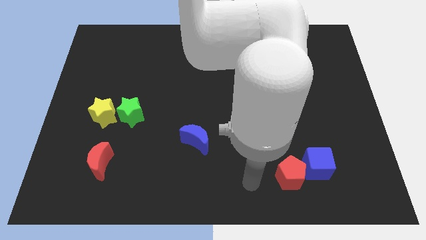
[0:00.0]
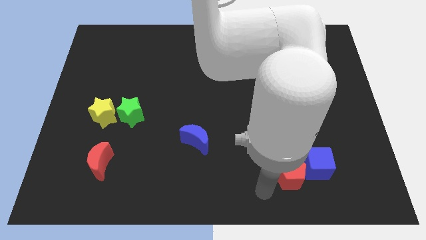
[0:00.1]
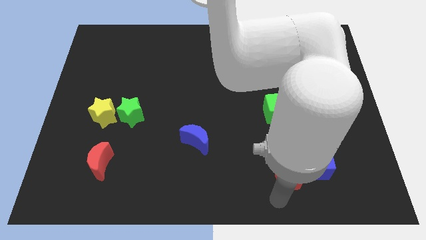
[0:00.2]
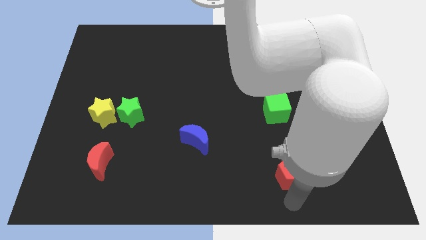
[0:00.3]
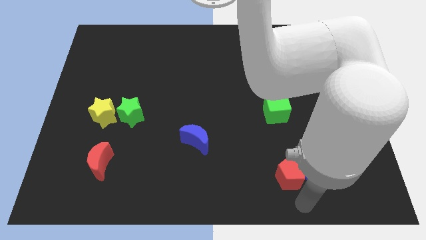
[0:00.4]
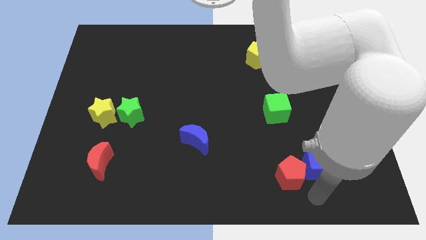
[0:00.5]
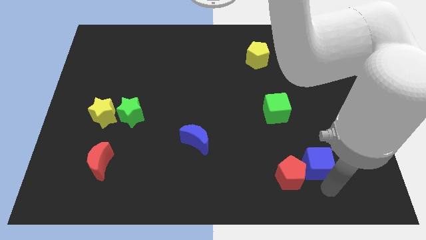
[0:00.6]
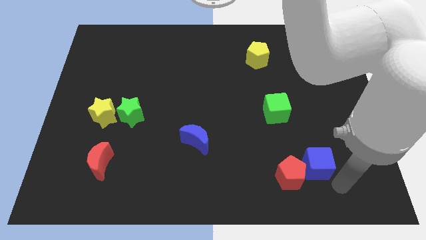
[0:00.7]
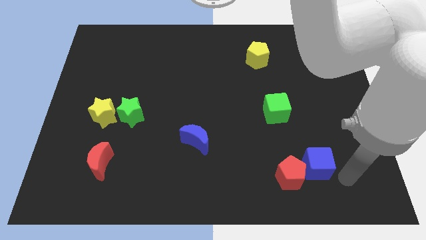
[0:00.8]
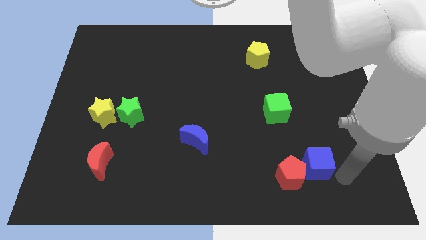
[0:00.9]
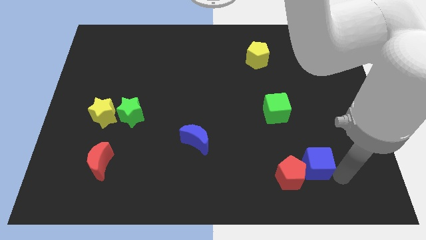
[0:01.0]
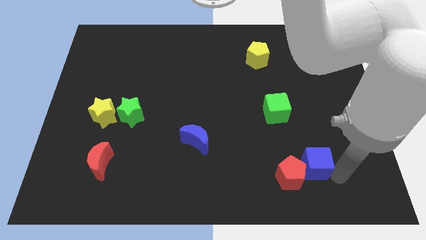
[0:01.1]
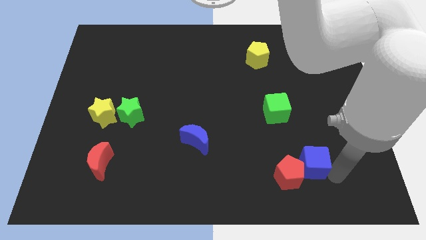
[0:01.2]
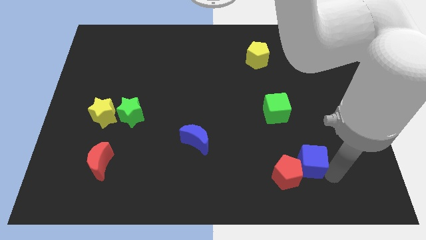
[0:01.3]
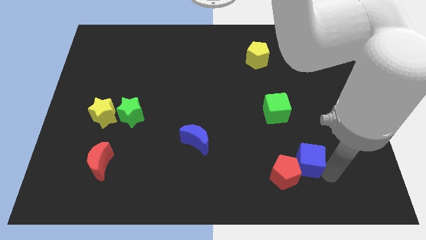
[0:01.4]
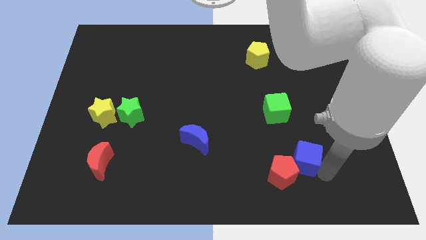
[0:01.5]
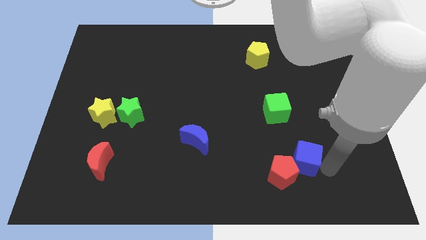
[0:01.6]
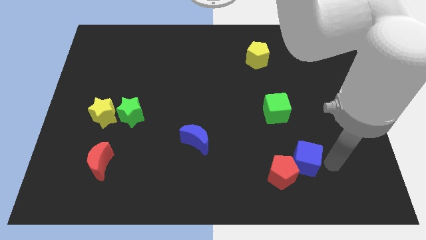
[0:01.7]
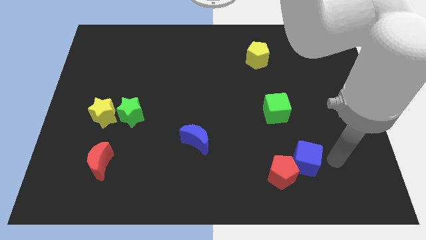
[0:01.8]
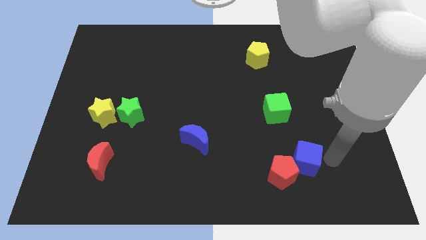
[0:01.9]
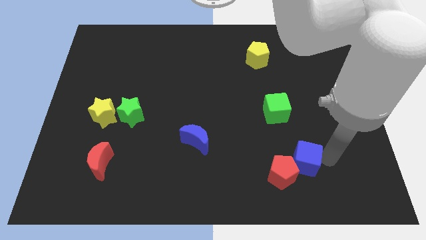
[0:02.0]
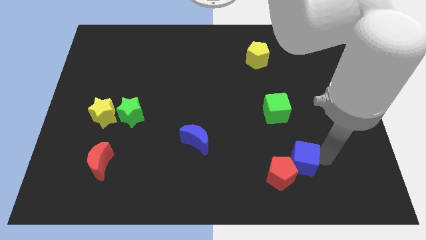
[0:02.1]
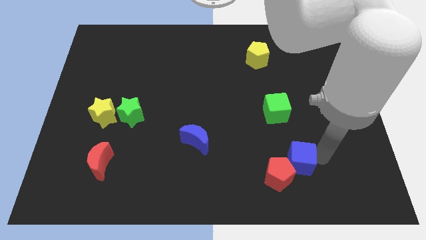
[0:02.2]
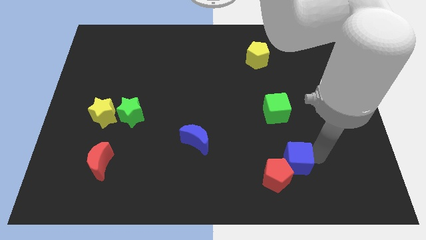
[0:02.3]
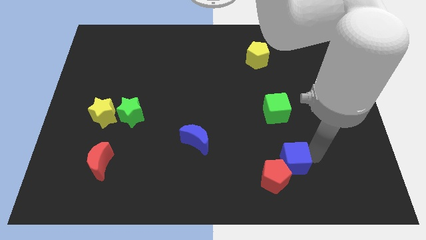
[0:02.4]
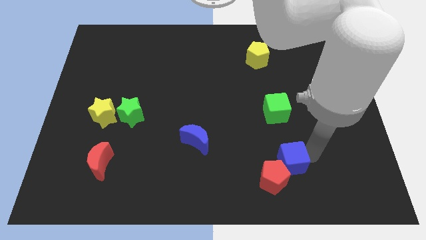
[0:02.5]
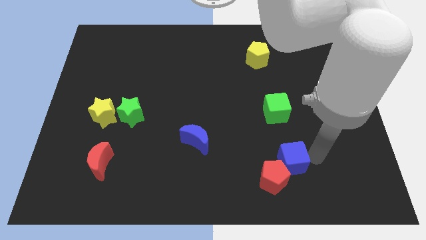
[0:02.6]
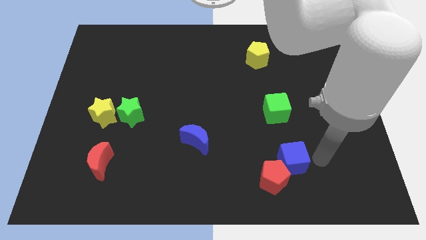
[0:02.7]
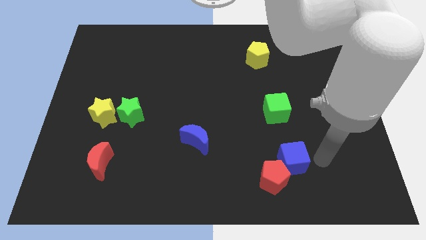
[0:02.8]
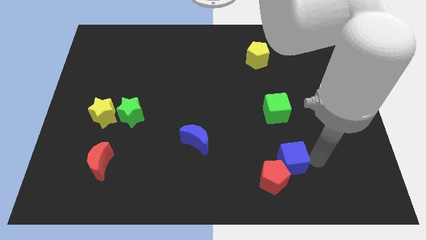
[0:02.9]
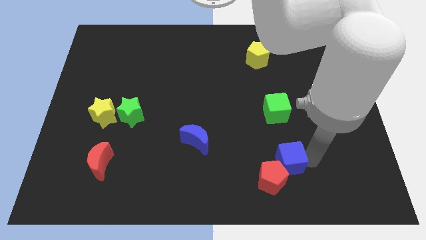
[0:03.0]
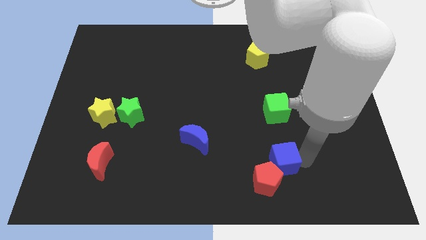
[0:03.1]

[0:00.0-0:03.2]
slightly push the blue cube left

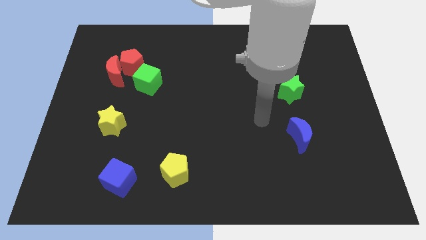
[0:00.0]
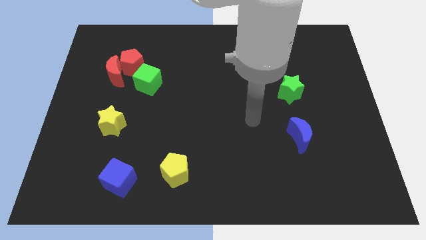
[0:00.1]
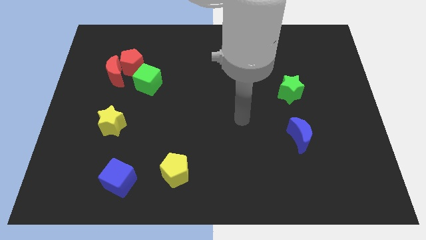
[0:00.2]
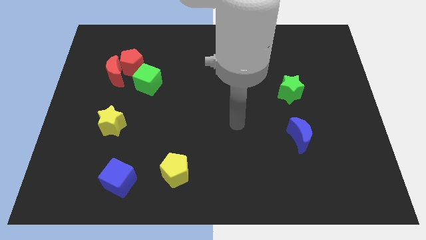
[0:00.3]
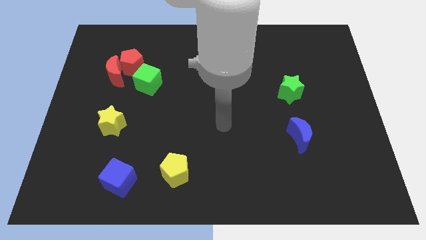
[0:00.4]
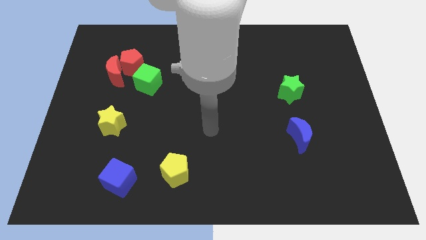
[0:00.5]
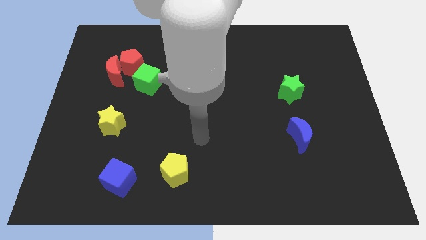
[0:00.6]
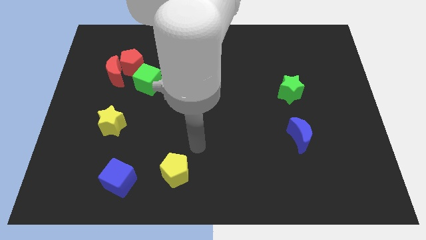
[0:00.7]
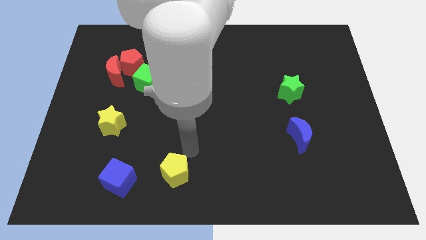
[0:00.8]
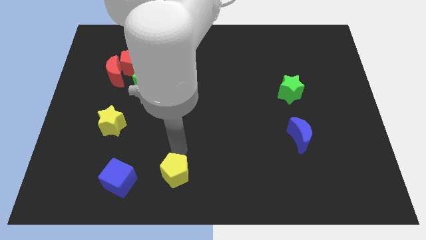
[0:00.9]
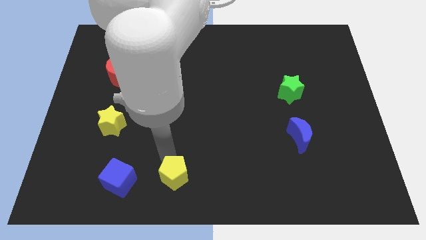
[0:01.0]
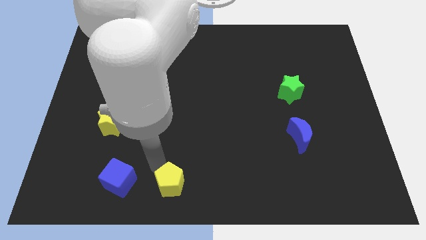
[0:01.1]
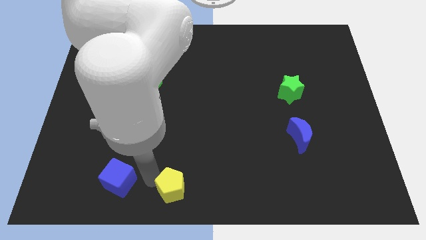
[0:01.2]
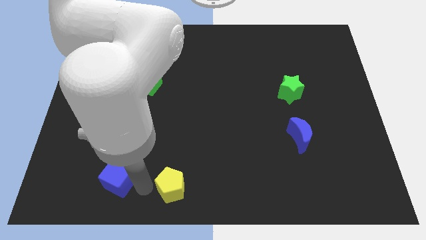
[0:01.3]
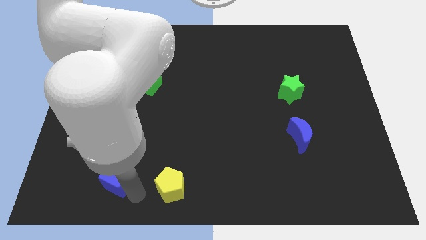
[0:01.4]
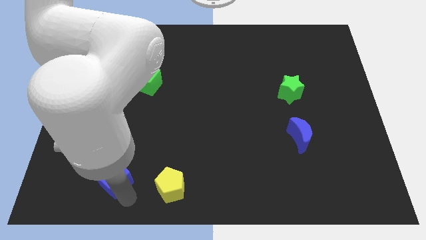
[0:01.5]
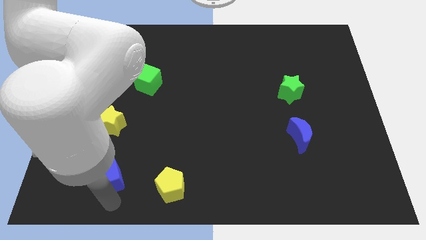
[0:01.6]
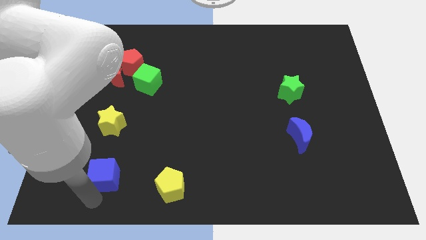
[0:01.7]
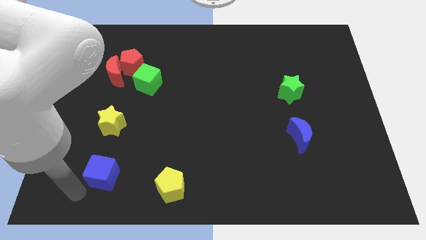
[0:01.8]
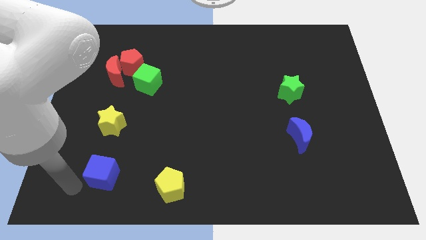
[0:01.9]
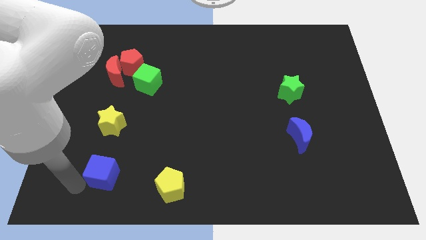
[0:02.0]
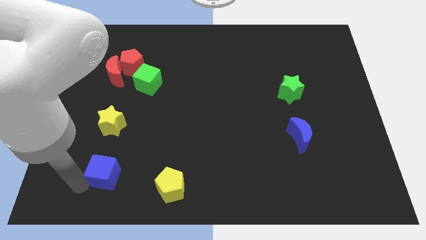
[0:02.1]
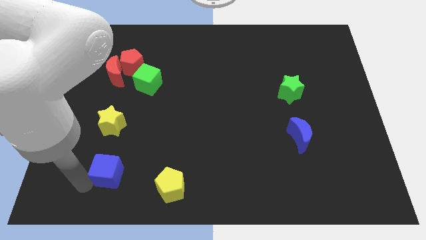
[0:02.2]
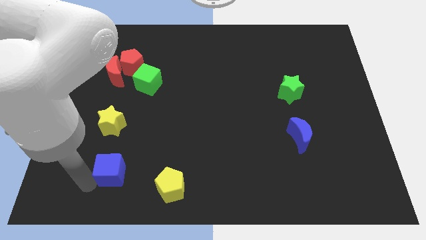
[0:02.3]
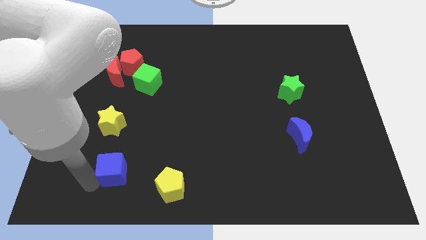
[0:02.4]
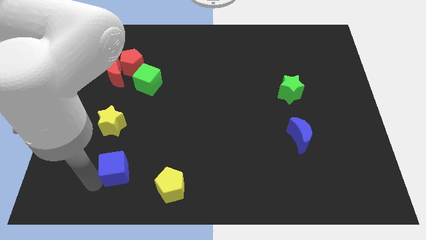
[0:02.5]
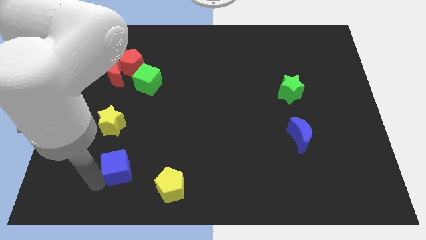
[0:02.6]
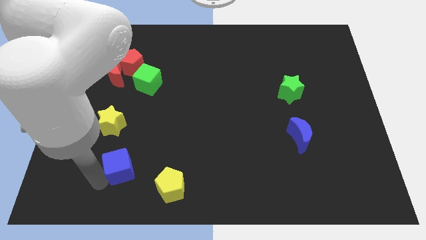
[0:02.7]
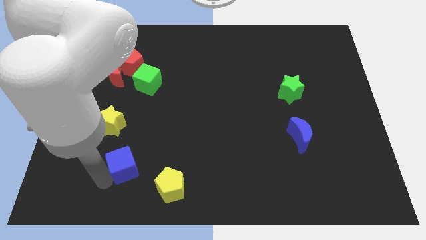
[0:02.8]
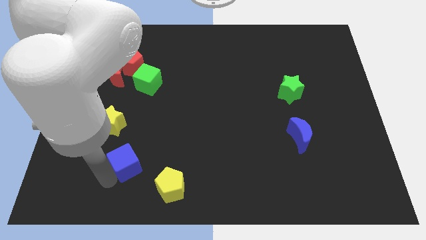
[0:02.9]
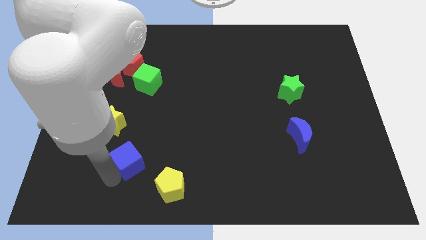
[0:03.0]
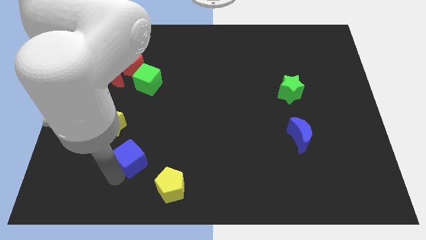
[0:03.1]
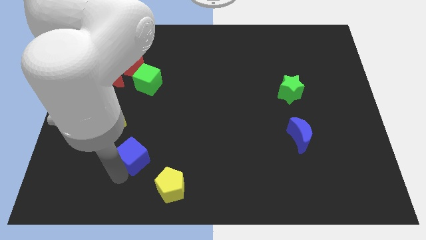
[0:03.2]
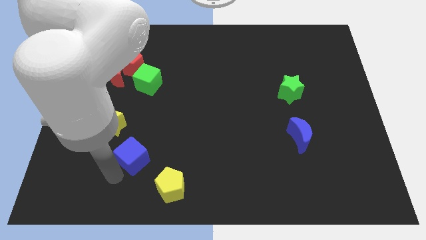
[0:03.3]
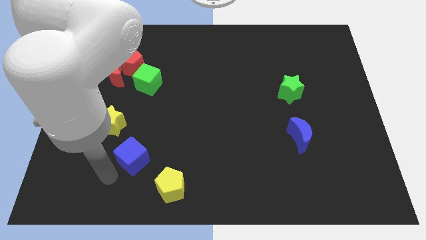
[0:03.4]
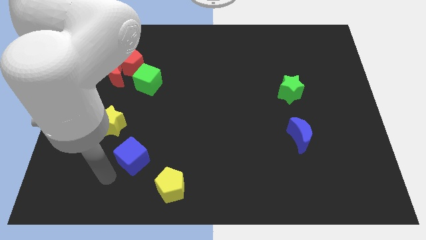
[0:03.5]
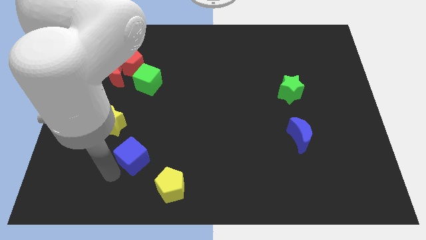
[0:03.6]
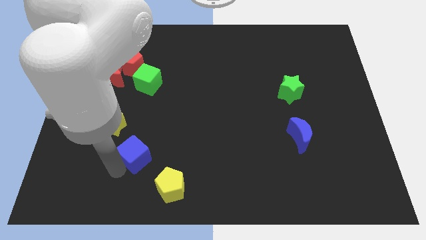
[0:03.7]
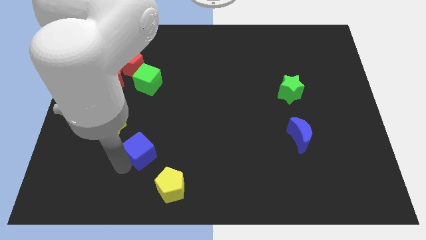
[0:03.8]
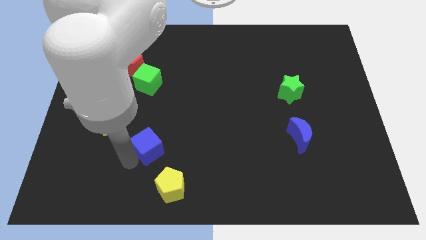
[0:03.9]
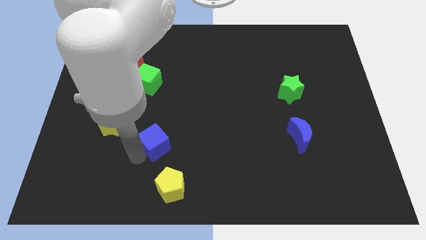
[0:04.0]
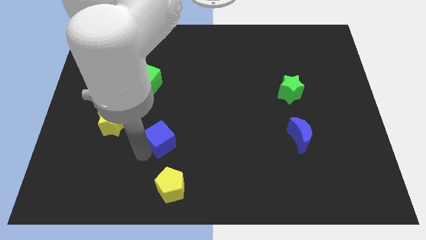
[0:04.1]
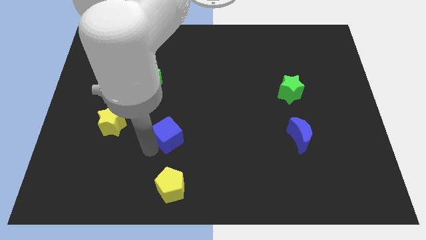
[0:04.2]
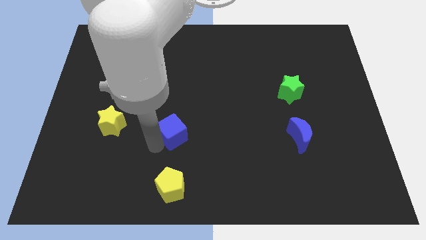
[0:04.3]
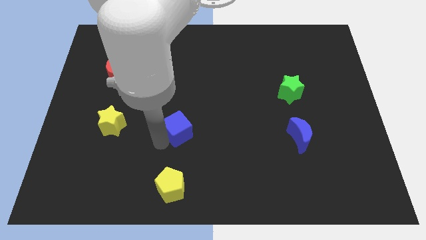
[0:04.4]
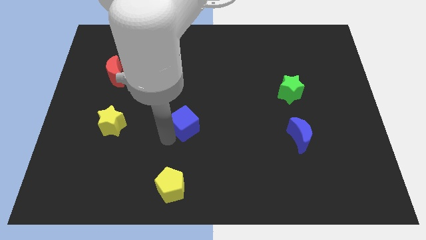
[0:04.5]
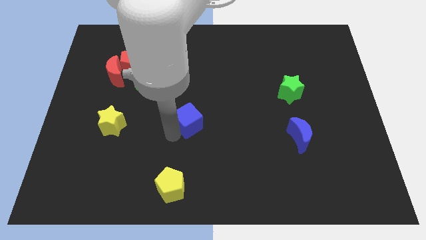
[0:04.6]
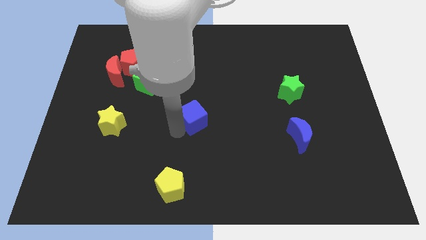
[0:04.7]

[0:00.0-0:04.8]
push the blue cube diagonally up and to the right
